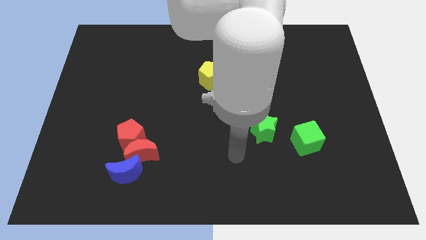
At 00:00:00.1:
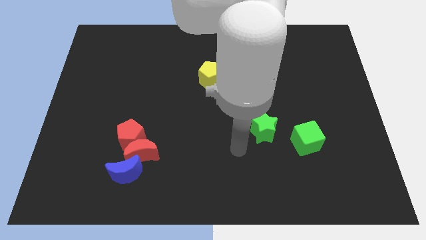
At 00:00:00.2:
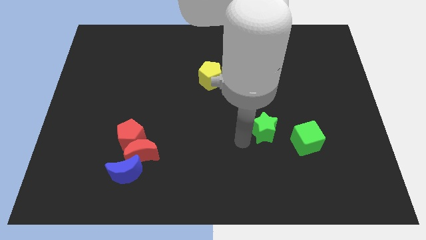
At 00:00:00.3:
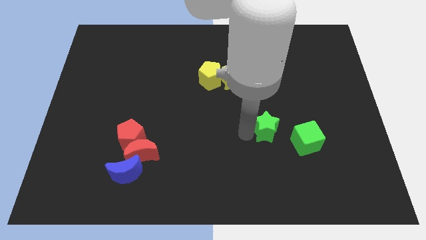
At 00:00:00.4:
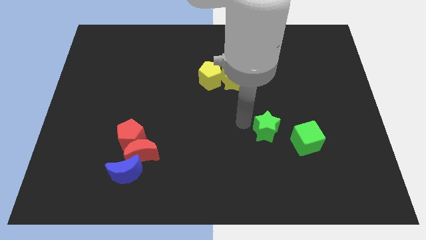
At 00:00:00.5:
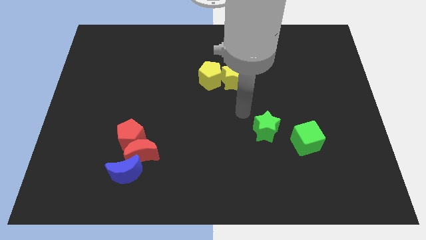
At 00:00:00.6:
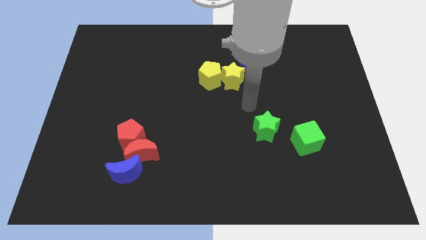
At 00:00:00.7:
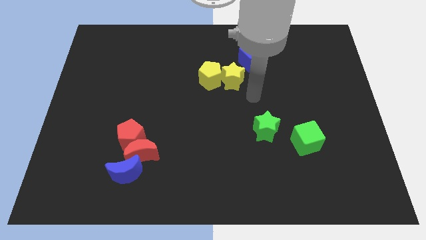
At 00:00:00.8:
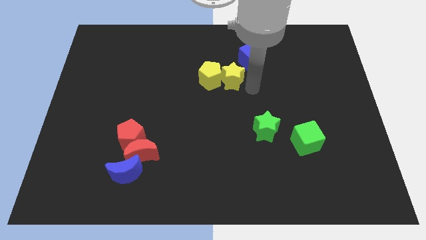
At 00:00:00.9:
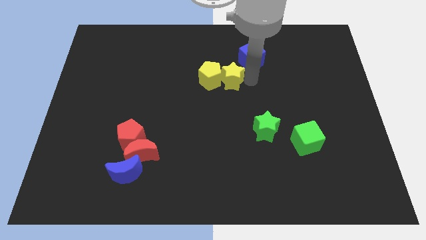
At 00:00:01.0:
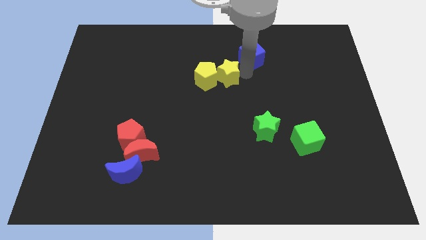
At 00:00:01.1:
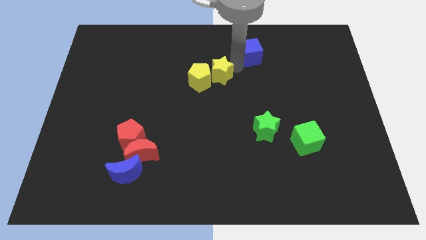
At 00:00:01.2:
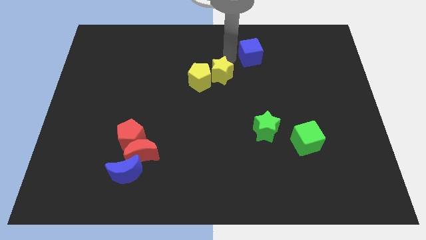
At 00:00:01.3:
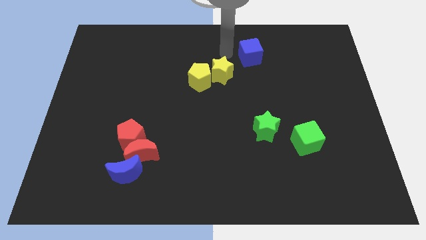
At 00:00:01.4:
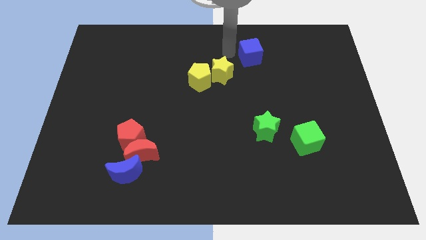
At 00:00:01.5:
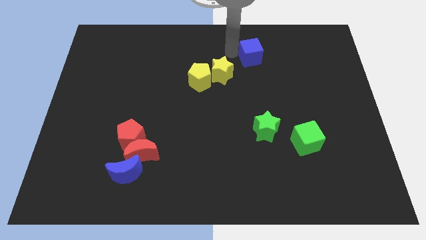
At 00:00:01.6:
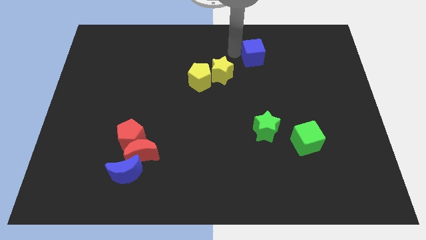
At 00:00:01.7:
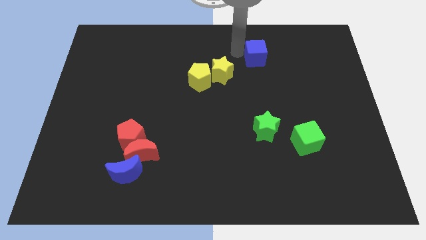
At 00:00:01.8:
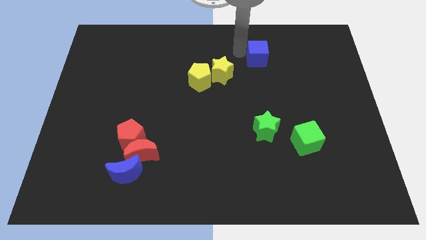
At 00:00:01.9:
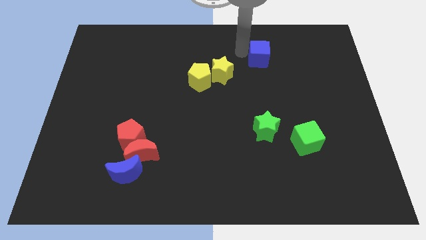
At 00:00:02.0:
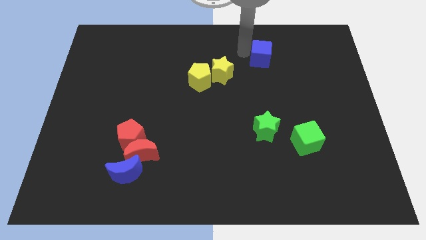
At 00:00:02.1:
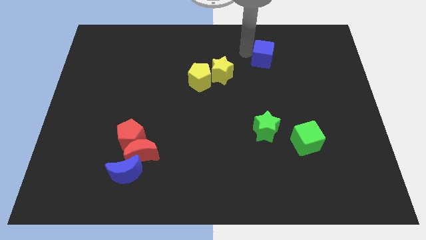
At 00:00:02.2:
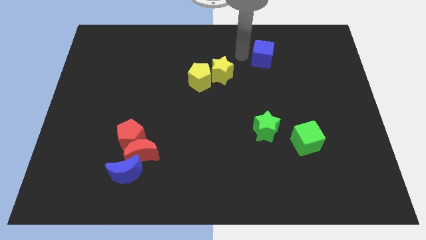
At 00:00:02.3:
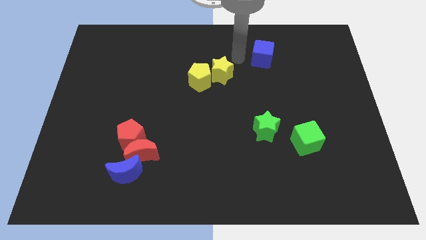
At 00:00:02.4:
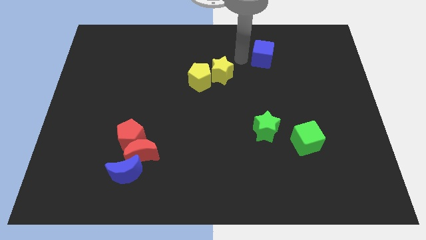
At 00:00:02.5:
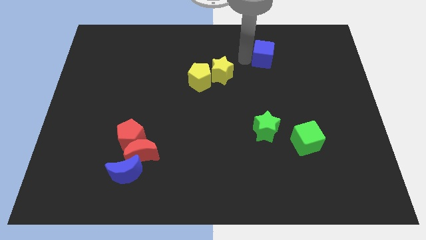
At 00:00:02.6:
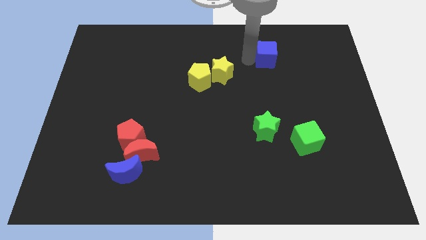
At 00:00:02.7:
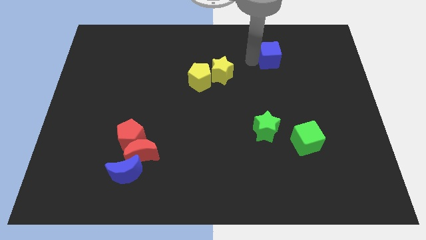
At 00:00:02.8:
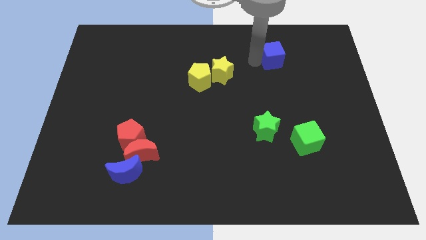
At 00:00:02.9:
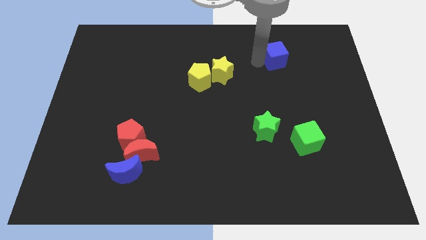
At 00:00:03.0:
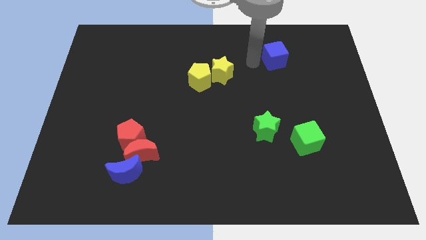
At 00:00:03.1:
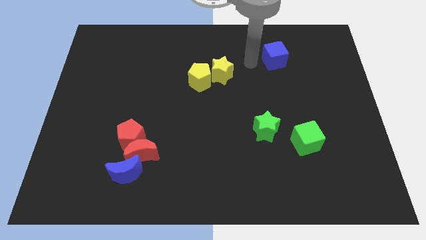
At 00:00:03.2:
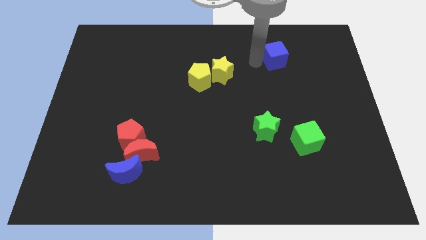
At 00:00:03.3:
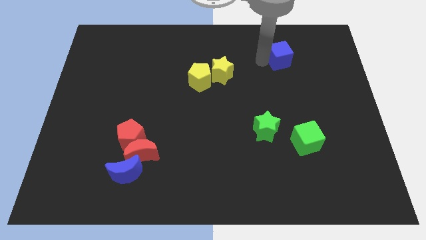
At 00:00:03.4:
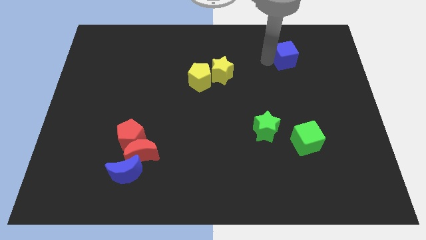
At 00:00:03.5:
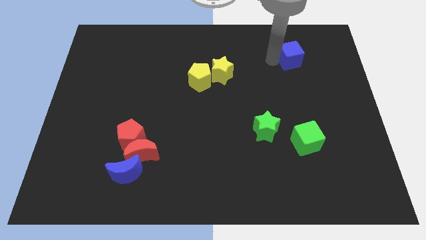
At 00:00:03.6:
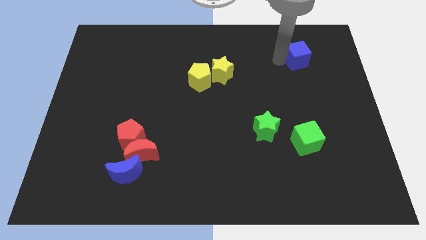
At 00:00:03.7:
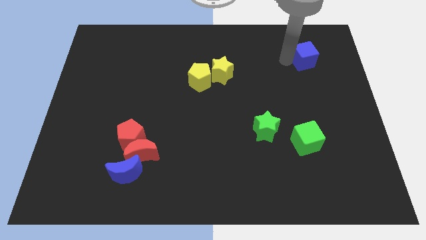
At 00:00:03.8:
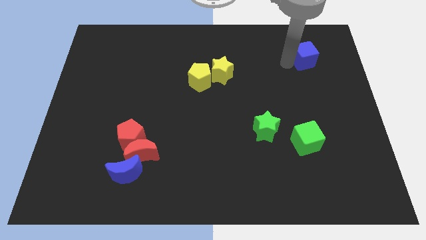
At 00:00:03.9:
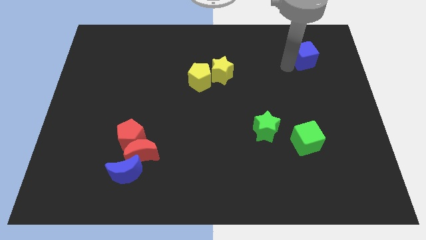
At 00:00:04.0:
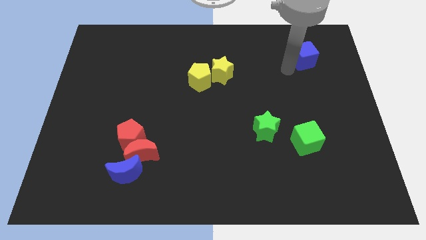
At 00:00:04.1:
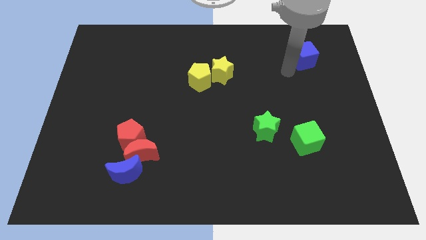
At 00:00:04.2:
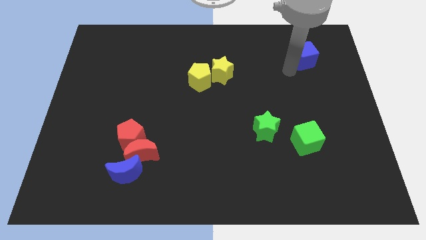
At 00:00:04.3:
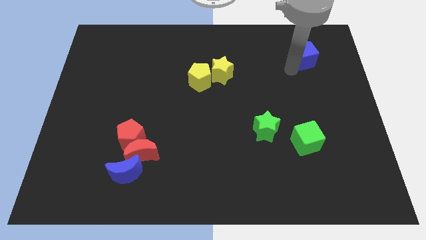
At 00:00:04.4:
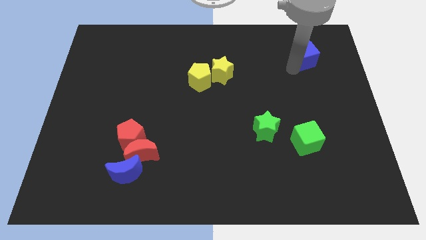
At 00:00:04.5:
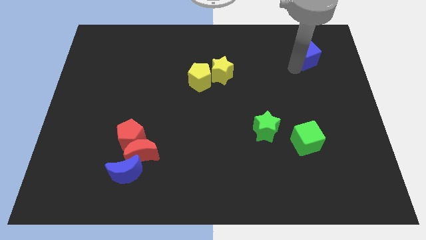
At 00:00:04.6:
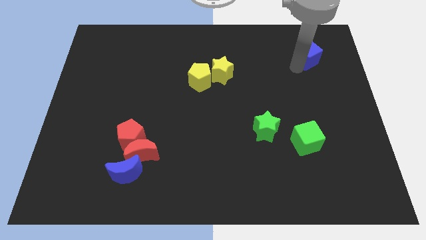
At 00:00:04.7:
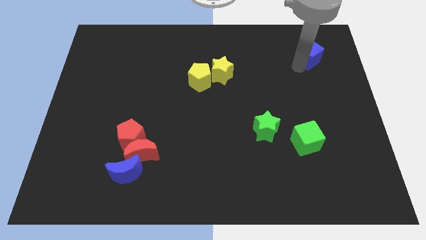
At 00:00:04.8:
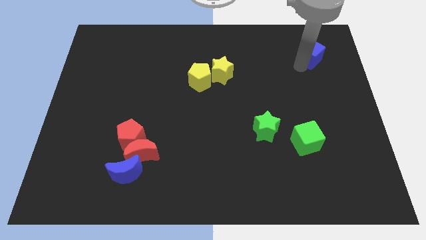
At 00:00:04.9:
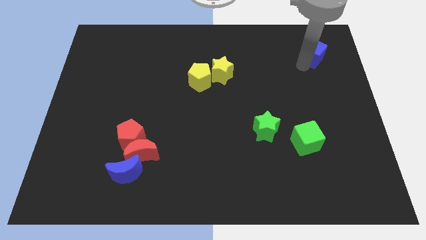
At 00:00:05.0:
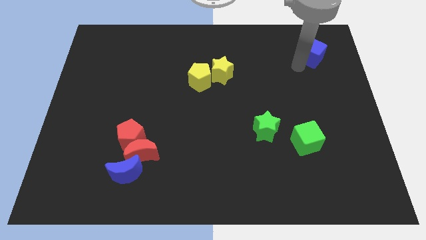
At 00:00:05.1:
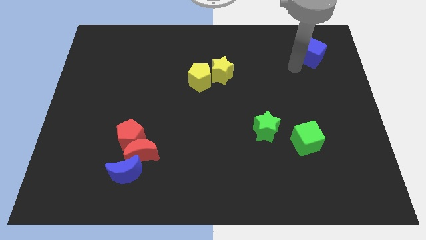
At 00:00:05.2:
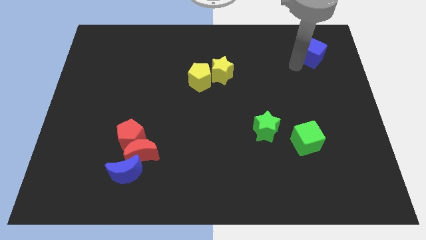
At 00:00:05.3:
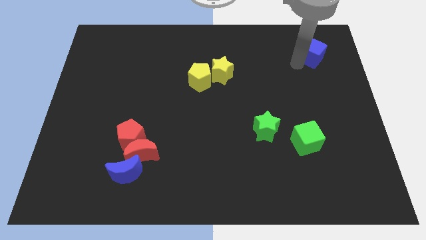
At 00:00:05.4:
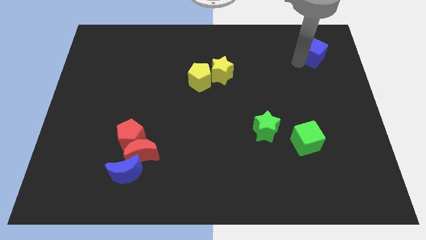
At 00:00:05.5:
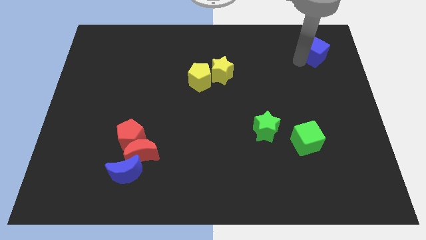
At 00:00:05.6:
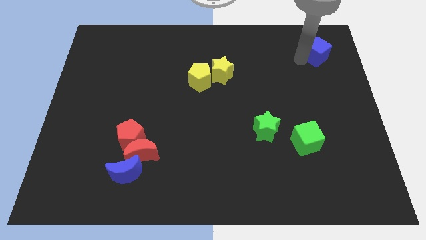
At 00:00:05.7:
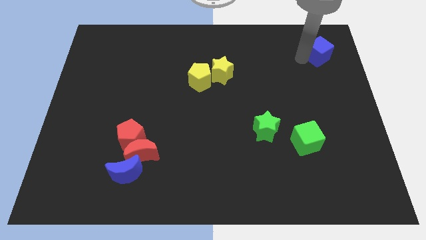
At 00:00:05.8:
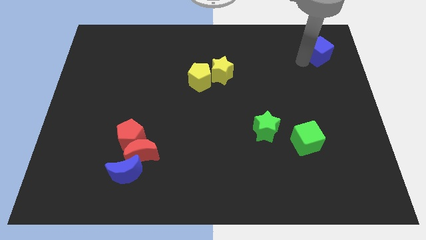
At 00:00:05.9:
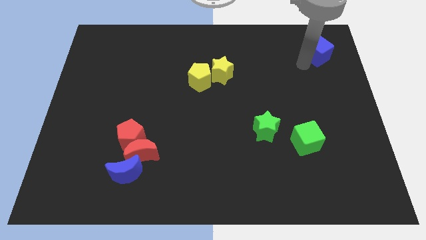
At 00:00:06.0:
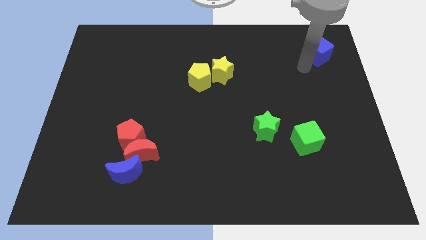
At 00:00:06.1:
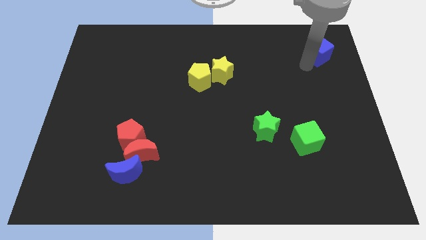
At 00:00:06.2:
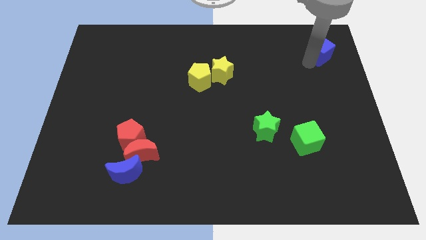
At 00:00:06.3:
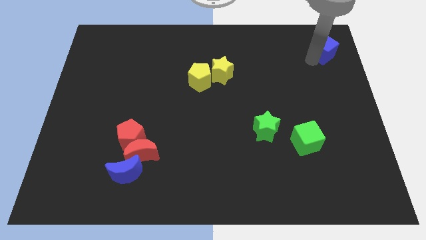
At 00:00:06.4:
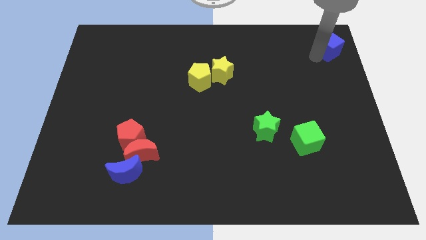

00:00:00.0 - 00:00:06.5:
slide the blue cube to the top right corner

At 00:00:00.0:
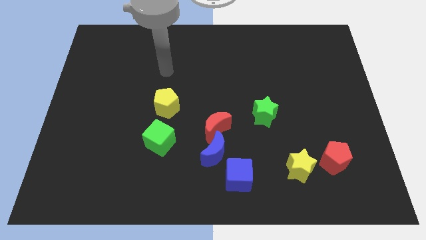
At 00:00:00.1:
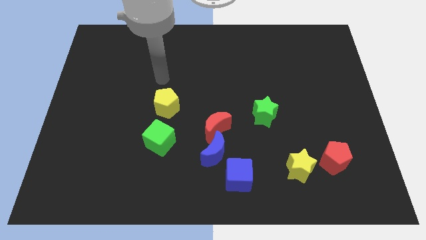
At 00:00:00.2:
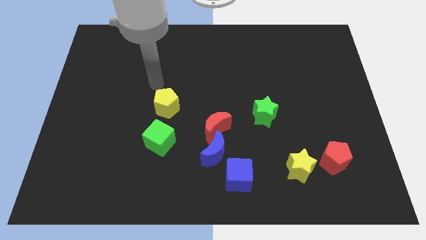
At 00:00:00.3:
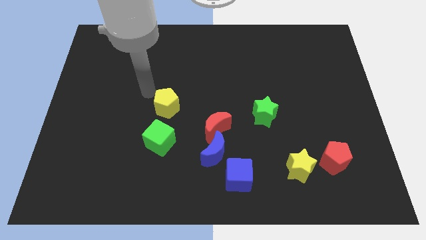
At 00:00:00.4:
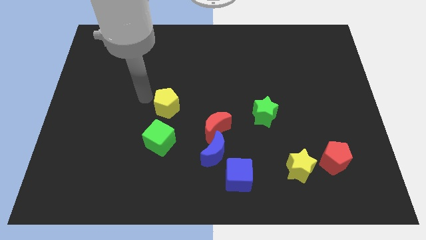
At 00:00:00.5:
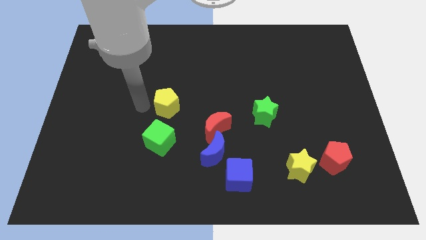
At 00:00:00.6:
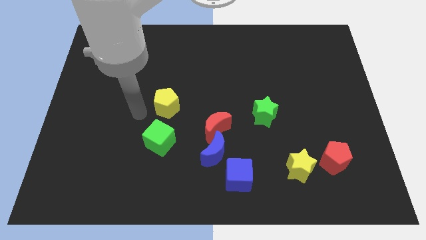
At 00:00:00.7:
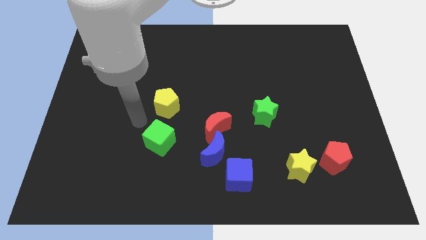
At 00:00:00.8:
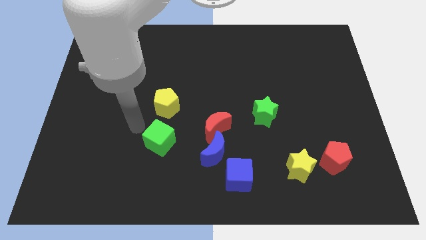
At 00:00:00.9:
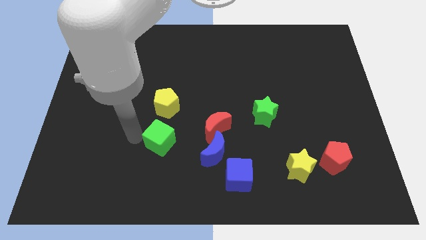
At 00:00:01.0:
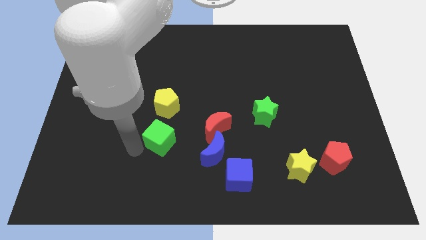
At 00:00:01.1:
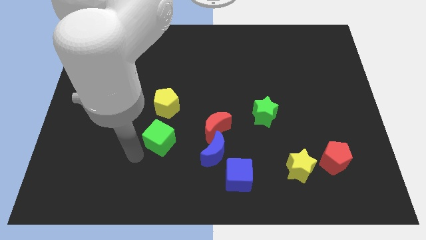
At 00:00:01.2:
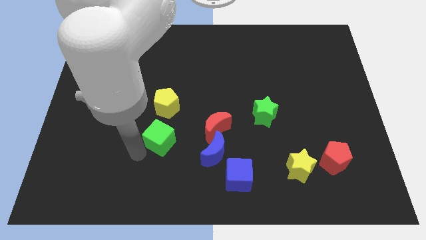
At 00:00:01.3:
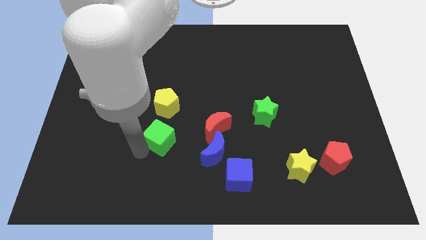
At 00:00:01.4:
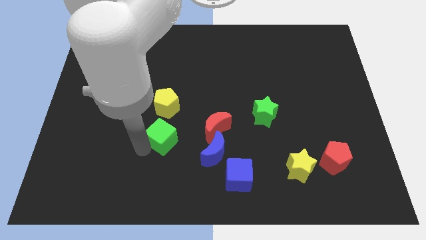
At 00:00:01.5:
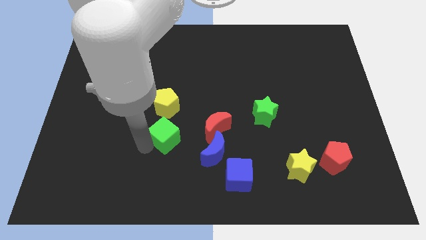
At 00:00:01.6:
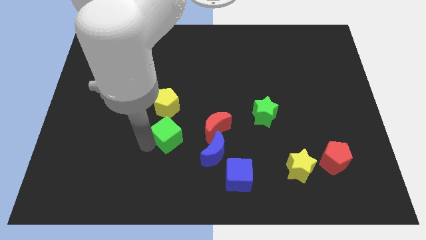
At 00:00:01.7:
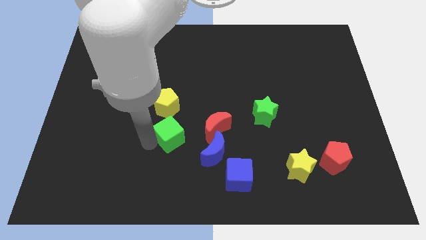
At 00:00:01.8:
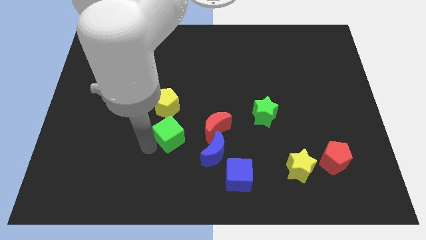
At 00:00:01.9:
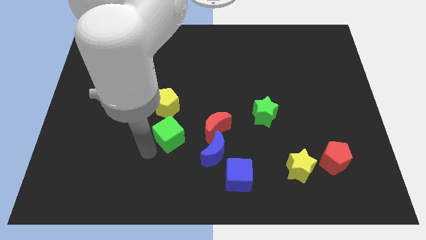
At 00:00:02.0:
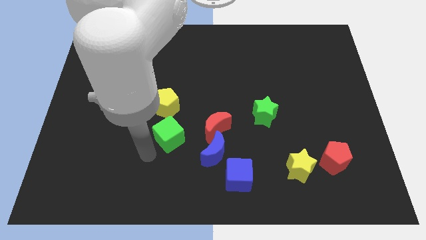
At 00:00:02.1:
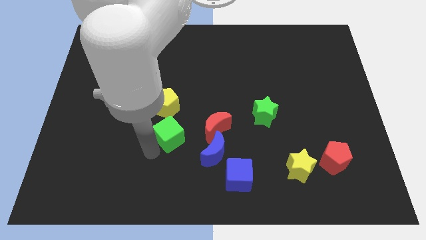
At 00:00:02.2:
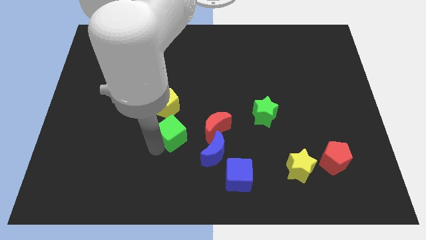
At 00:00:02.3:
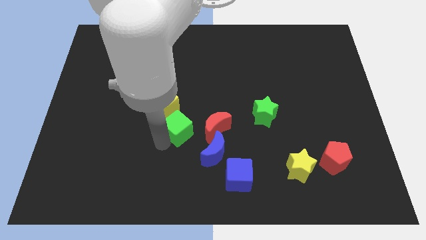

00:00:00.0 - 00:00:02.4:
push the green cube to the middle of the board
